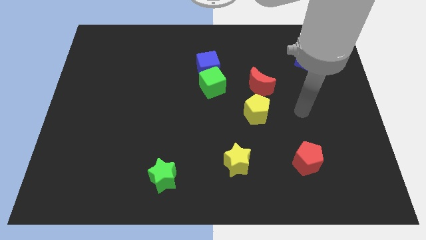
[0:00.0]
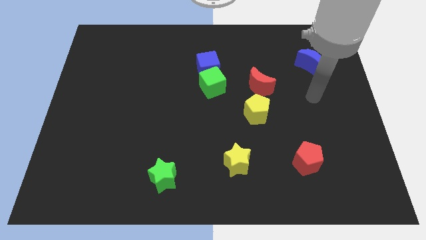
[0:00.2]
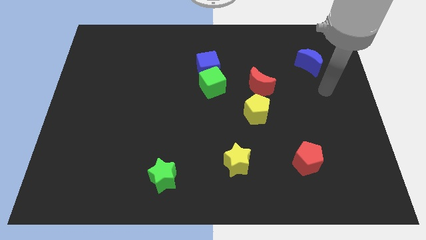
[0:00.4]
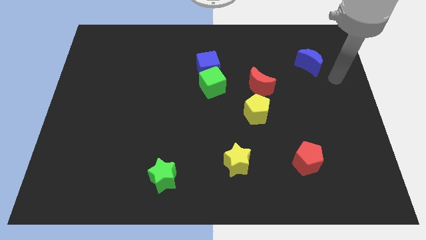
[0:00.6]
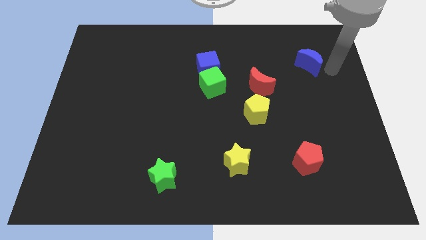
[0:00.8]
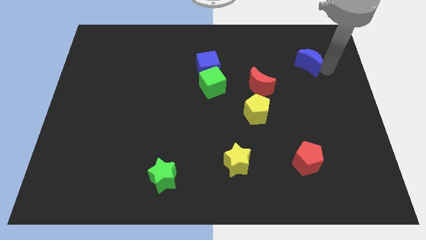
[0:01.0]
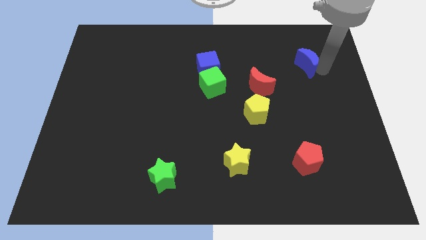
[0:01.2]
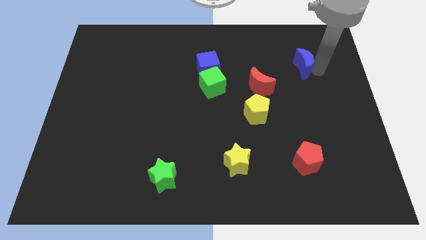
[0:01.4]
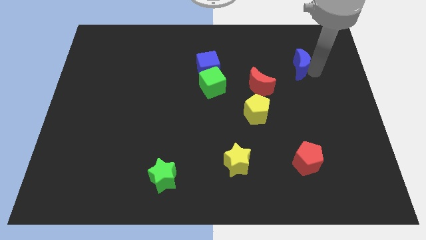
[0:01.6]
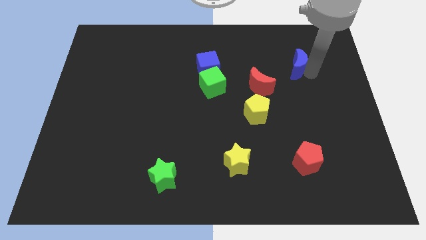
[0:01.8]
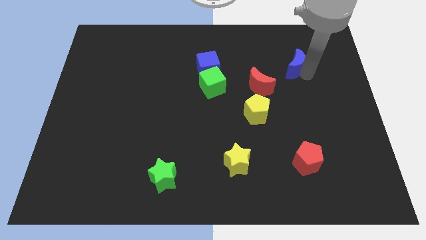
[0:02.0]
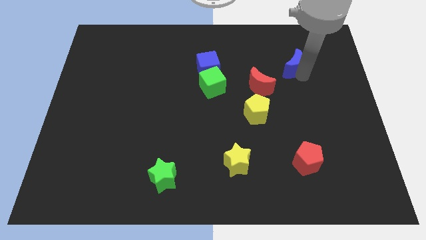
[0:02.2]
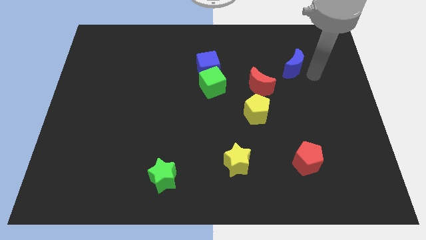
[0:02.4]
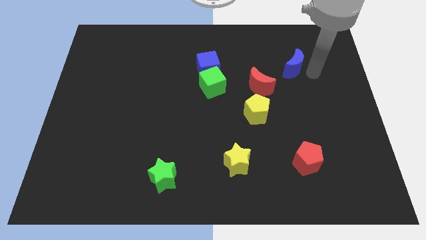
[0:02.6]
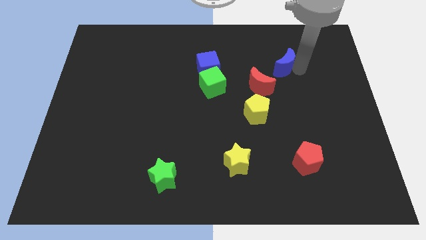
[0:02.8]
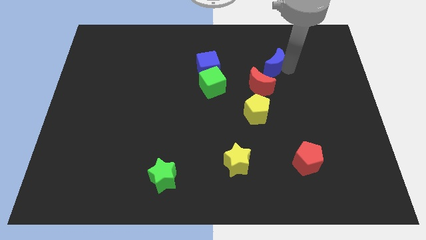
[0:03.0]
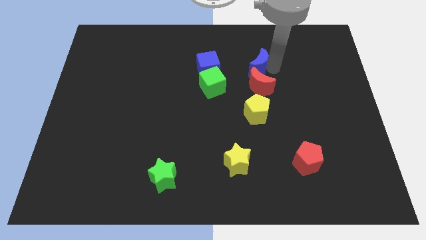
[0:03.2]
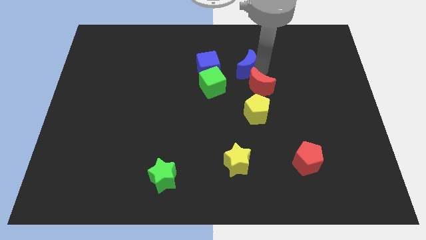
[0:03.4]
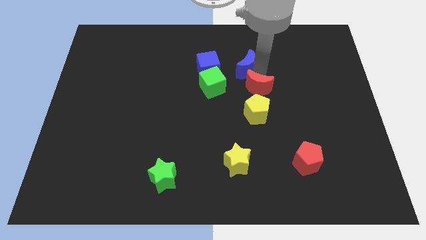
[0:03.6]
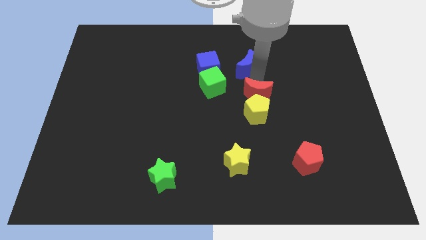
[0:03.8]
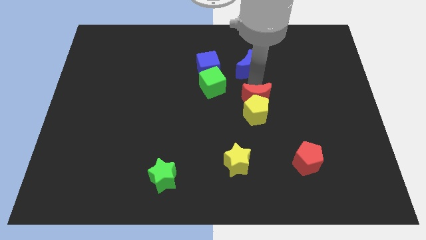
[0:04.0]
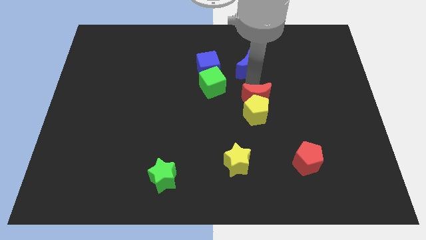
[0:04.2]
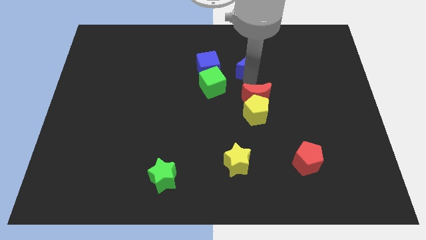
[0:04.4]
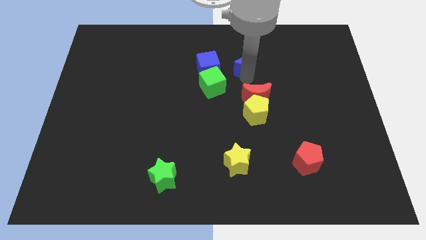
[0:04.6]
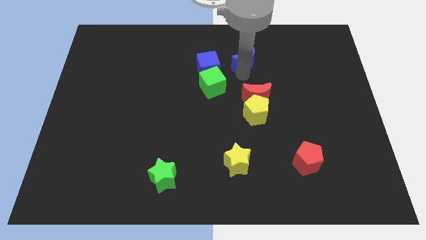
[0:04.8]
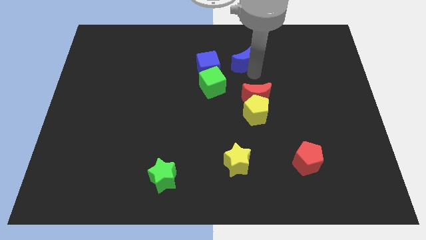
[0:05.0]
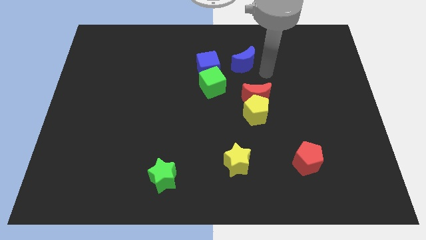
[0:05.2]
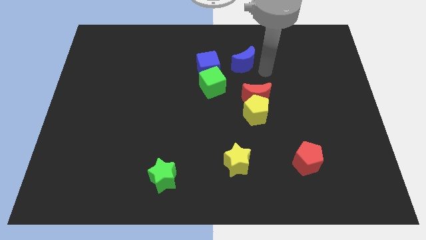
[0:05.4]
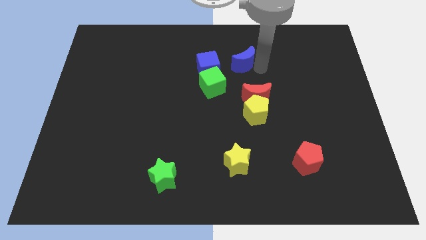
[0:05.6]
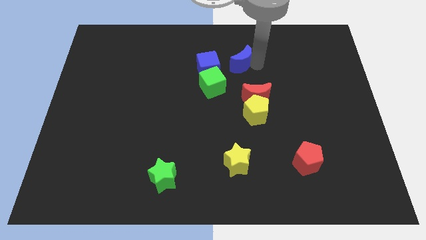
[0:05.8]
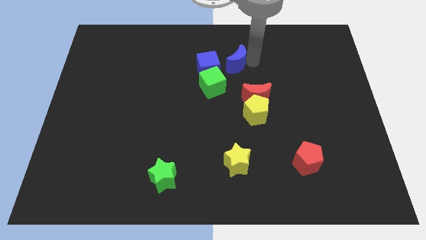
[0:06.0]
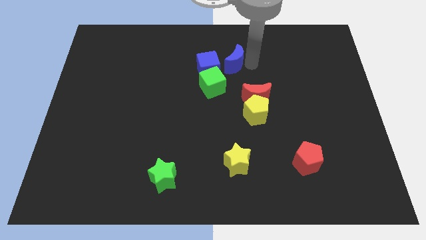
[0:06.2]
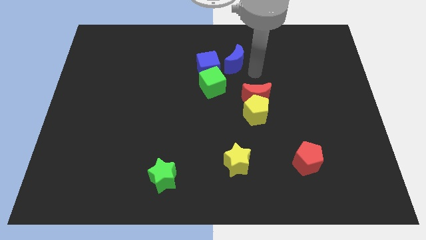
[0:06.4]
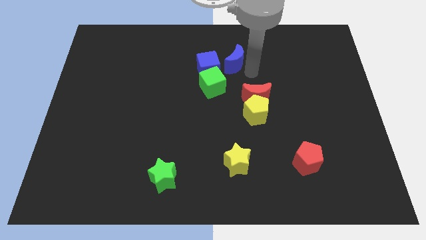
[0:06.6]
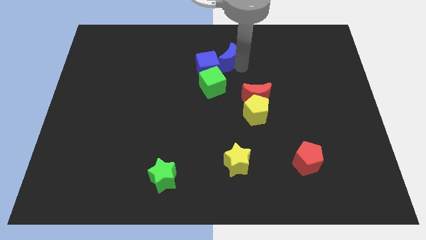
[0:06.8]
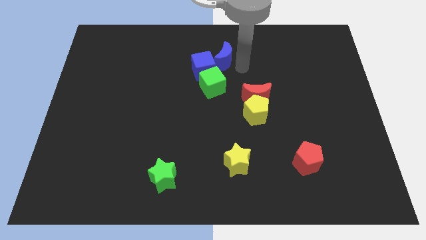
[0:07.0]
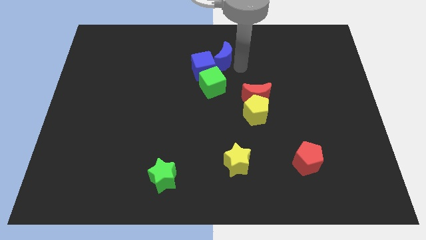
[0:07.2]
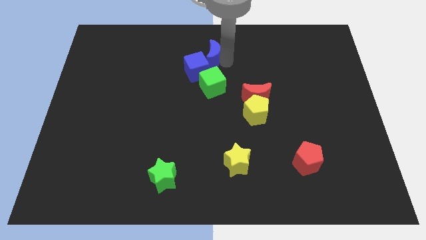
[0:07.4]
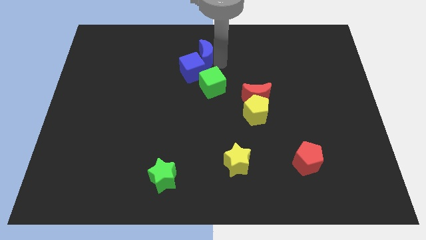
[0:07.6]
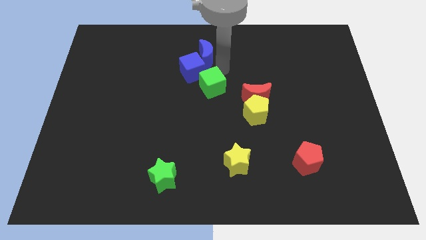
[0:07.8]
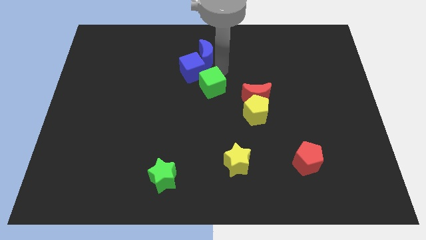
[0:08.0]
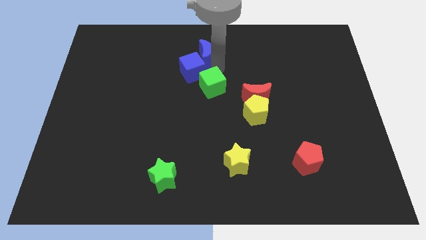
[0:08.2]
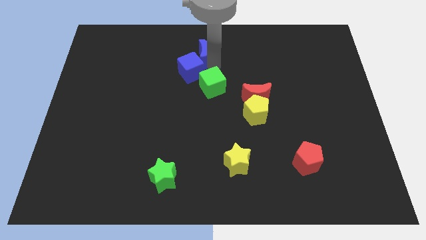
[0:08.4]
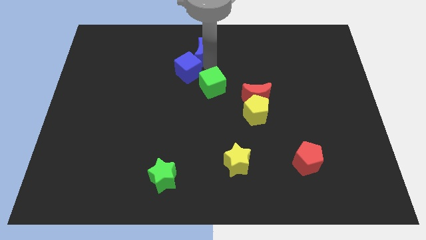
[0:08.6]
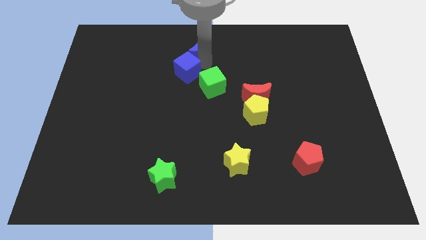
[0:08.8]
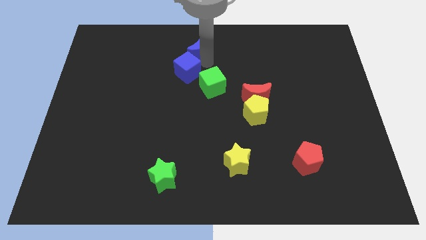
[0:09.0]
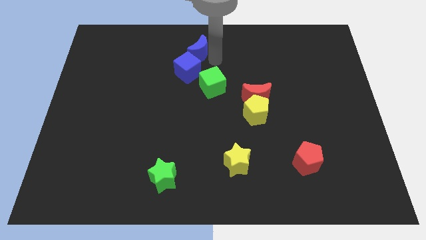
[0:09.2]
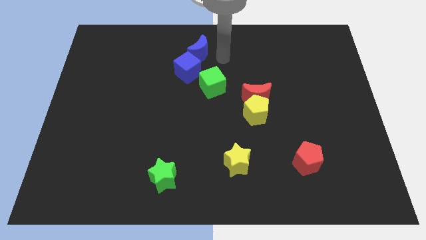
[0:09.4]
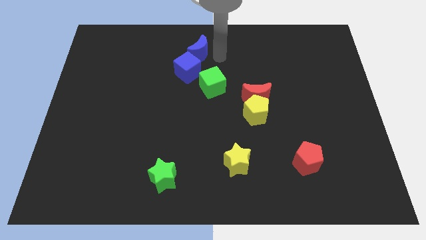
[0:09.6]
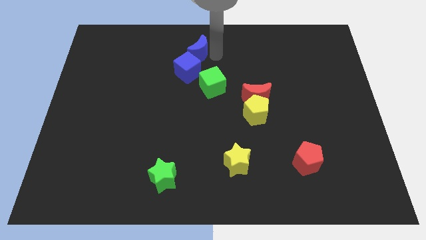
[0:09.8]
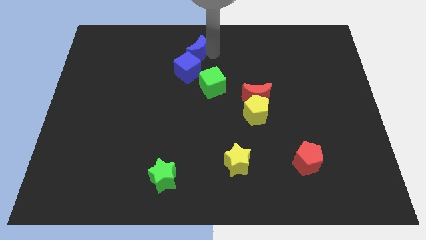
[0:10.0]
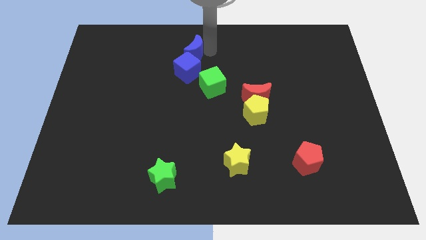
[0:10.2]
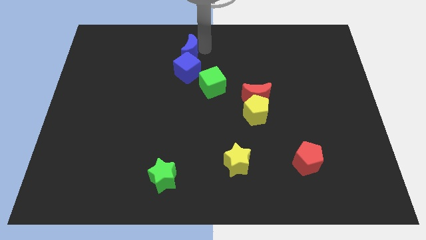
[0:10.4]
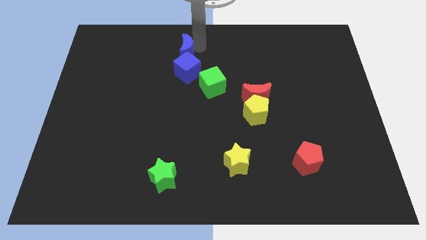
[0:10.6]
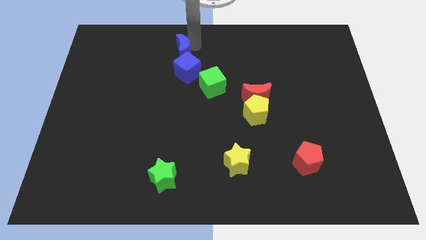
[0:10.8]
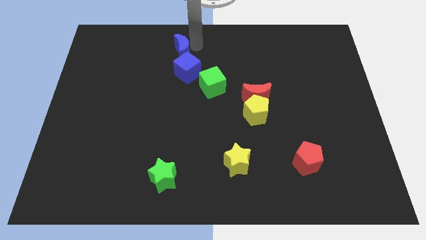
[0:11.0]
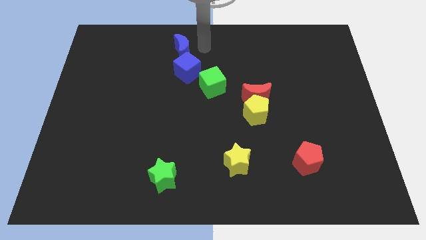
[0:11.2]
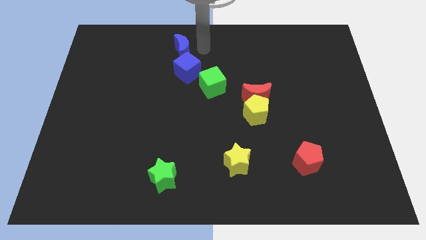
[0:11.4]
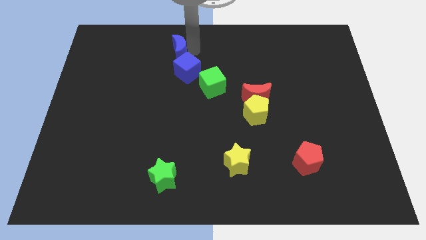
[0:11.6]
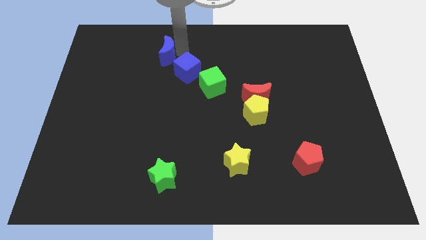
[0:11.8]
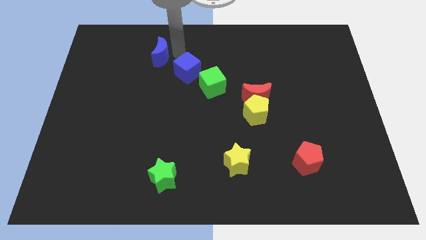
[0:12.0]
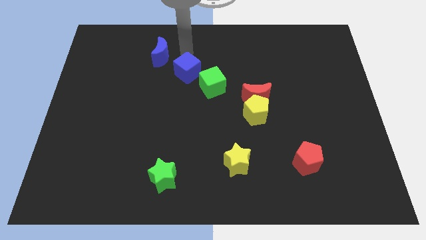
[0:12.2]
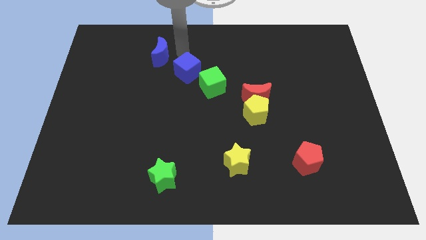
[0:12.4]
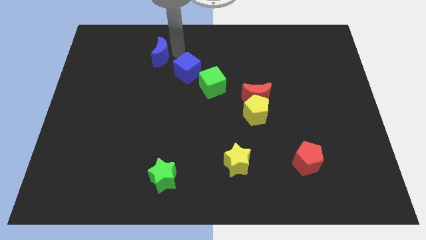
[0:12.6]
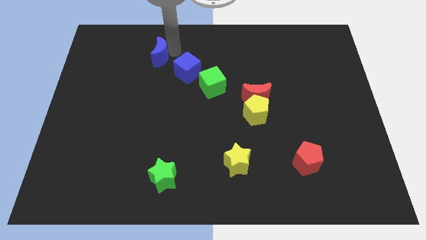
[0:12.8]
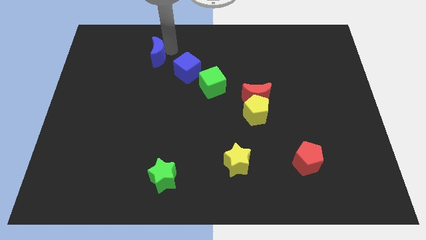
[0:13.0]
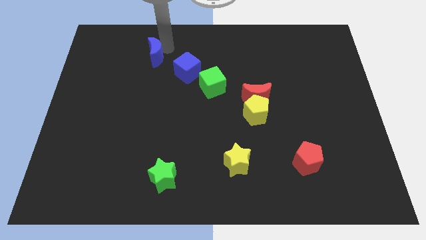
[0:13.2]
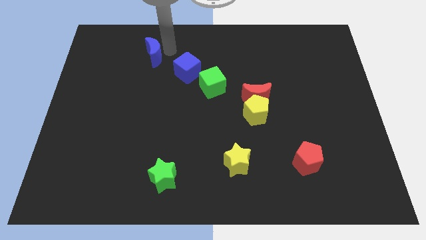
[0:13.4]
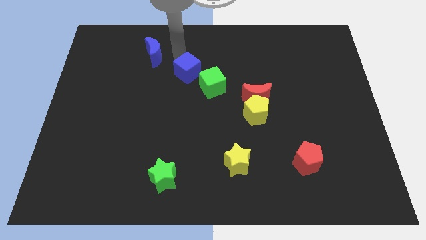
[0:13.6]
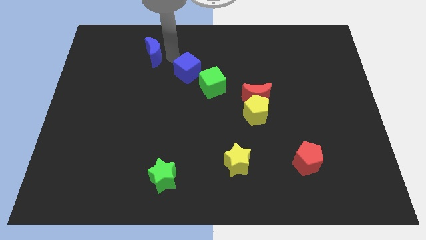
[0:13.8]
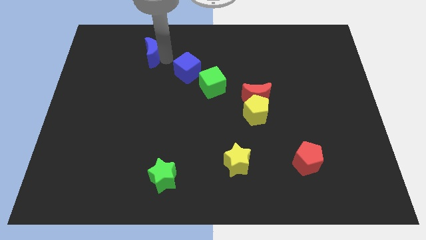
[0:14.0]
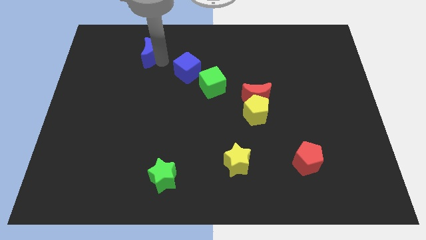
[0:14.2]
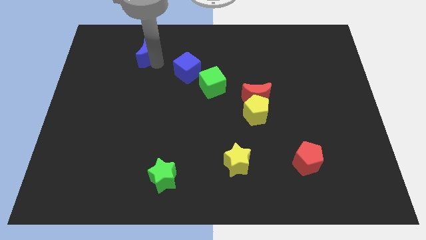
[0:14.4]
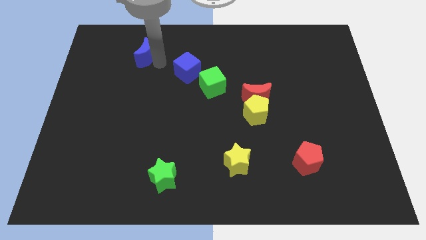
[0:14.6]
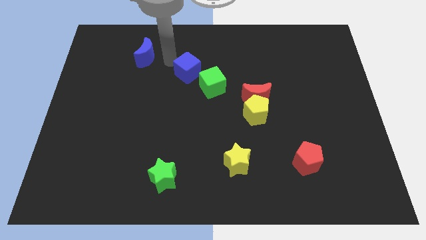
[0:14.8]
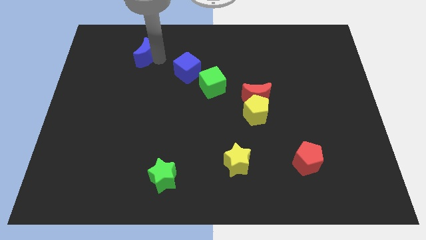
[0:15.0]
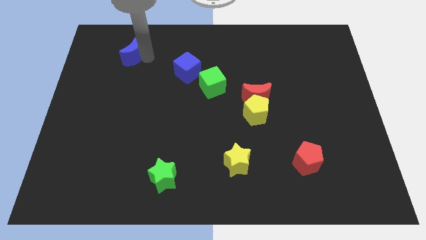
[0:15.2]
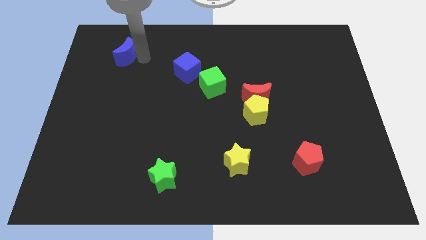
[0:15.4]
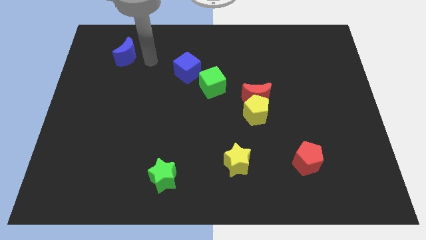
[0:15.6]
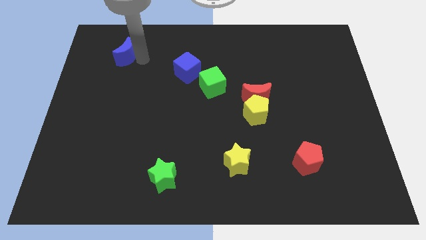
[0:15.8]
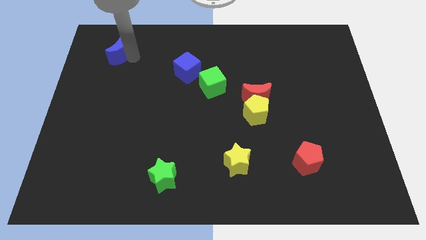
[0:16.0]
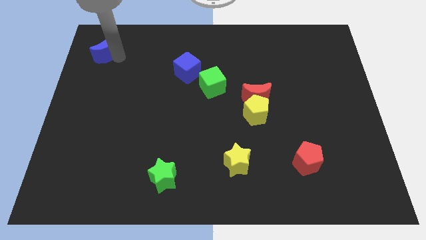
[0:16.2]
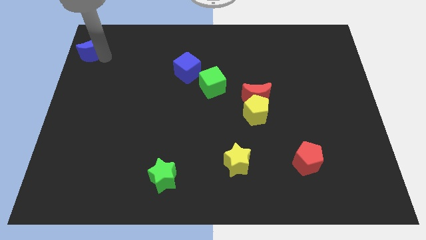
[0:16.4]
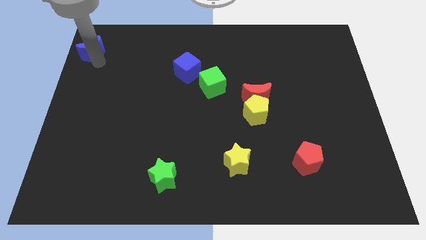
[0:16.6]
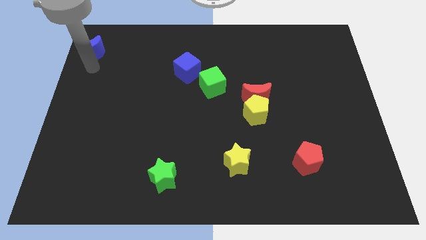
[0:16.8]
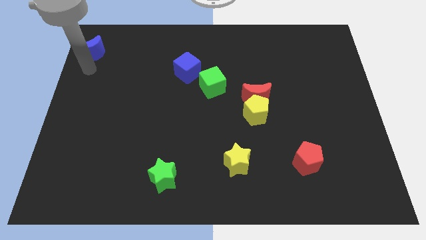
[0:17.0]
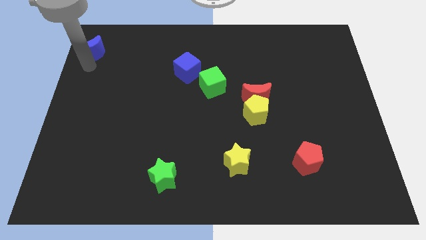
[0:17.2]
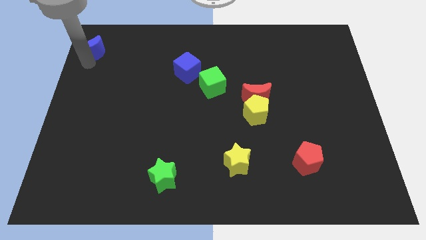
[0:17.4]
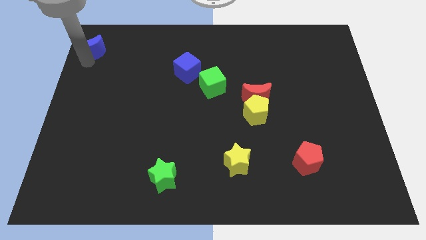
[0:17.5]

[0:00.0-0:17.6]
move the blue moon to the top left of the board
